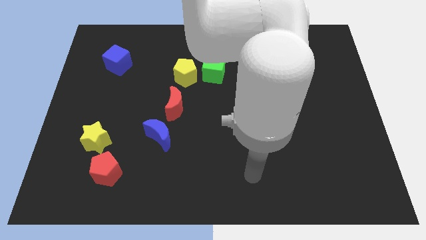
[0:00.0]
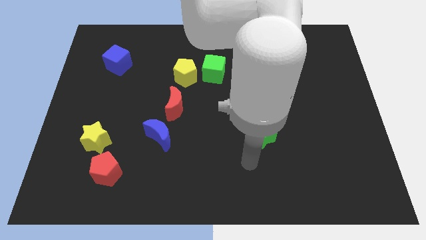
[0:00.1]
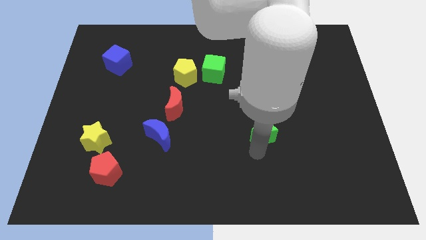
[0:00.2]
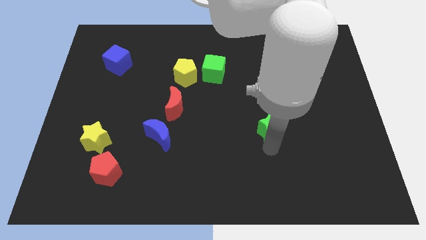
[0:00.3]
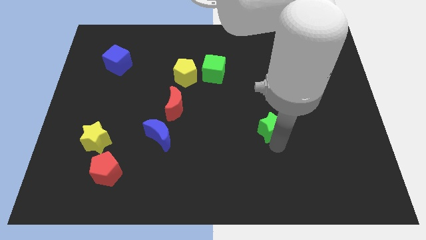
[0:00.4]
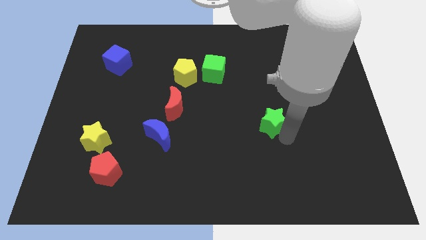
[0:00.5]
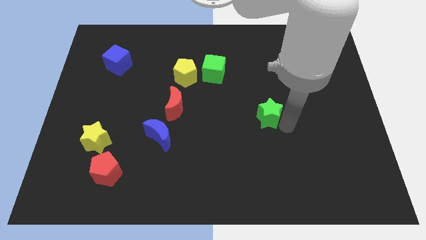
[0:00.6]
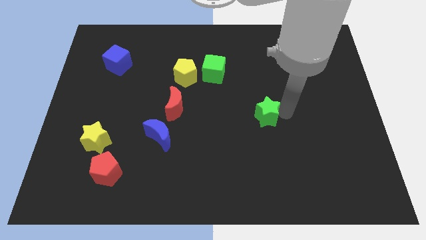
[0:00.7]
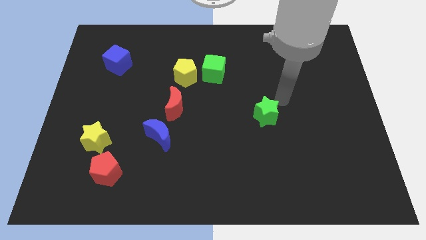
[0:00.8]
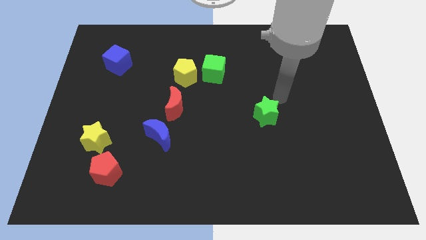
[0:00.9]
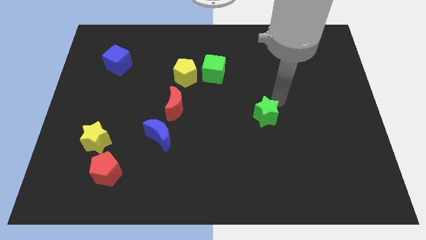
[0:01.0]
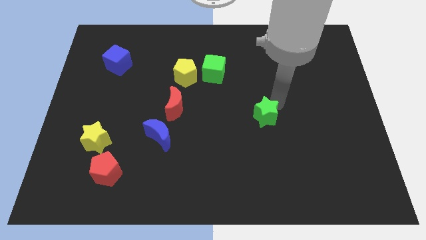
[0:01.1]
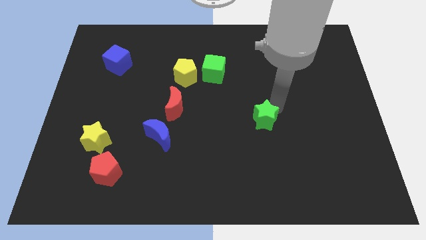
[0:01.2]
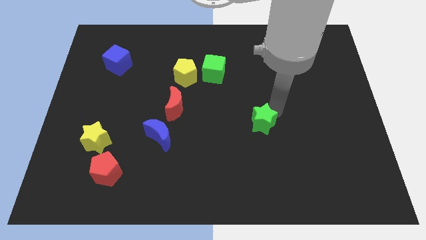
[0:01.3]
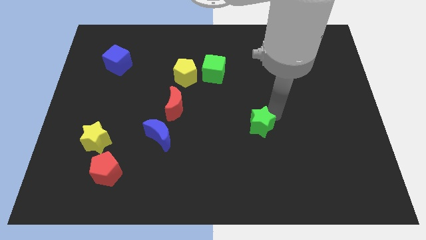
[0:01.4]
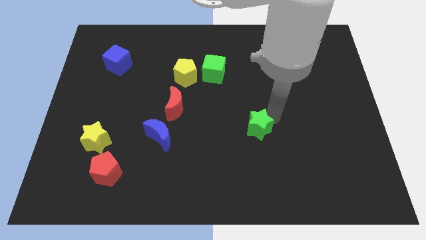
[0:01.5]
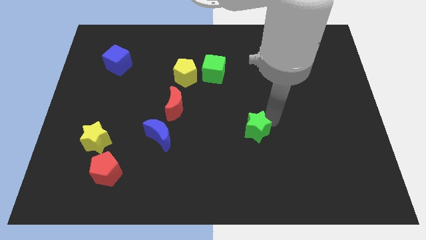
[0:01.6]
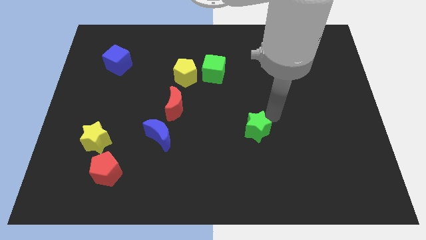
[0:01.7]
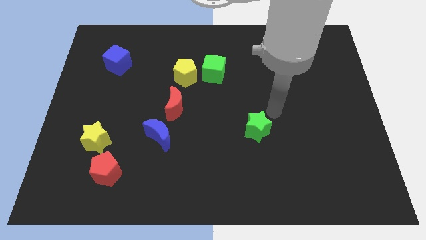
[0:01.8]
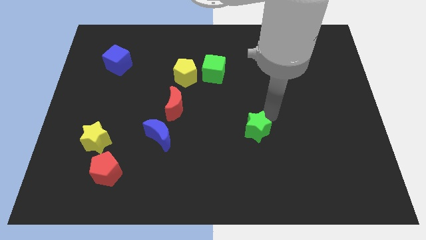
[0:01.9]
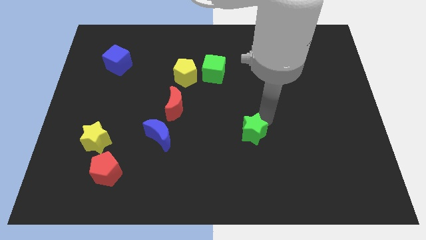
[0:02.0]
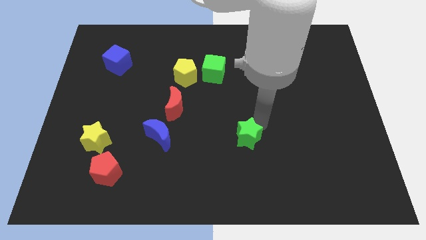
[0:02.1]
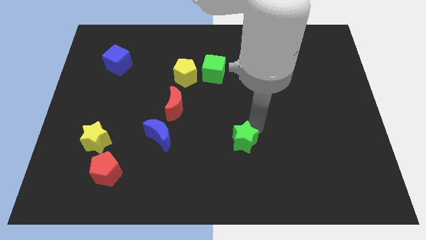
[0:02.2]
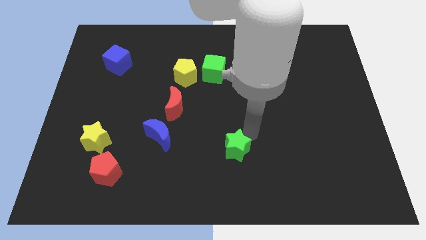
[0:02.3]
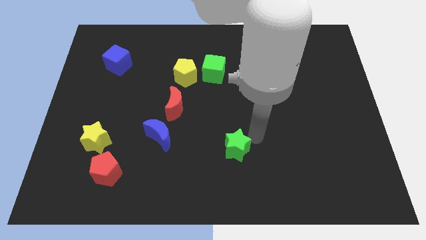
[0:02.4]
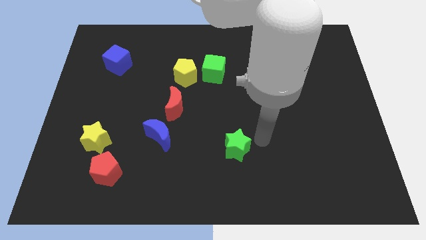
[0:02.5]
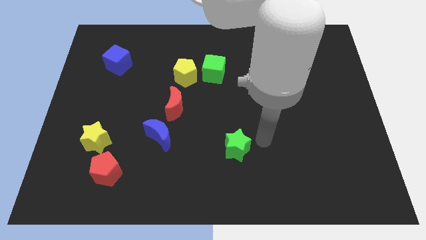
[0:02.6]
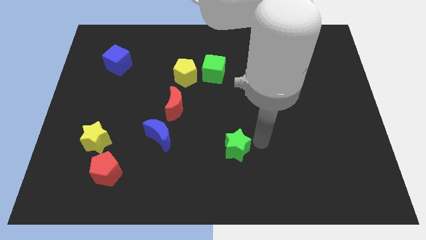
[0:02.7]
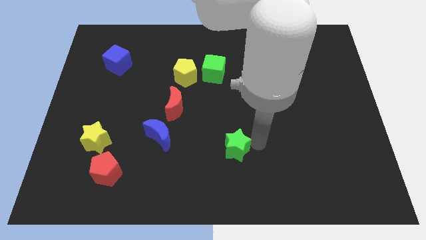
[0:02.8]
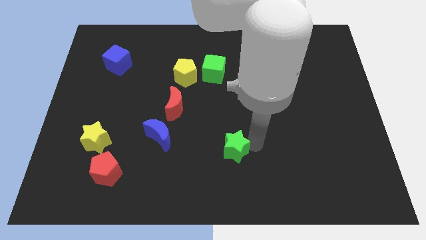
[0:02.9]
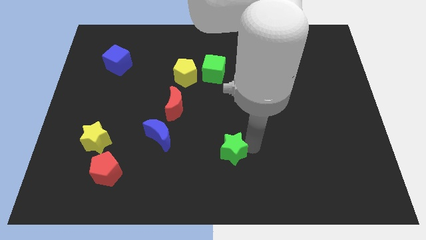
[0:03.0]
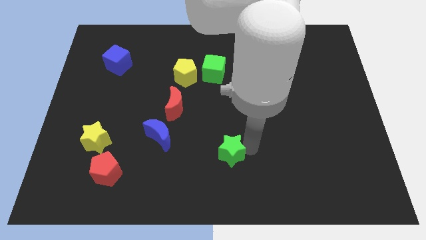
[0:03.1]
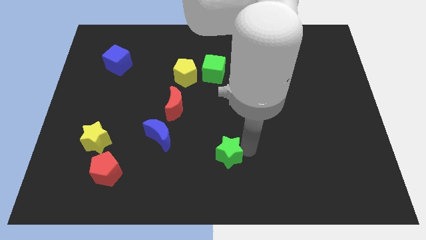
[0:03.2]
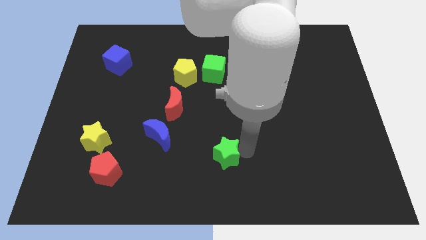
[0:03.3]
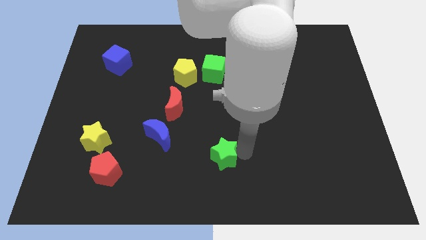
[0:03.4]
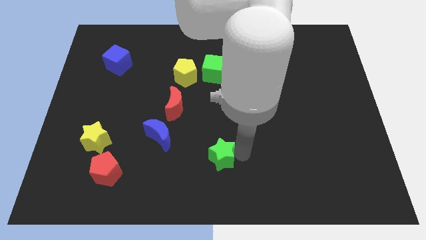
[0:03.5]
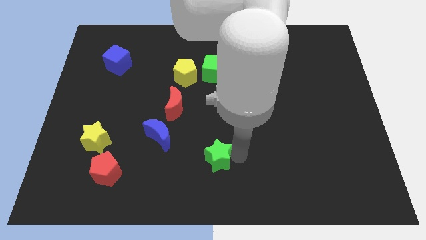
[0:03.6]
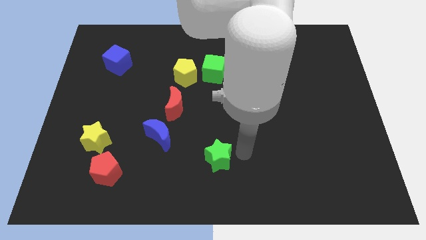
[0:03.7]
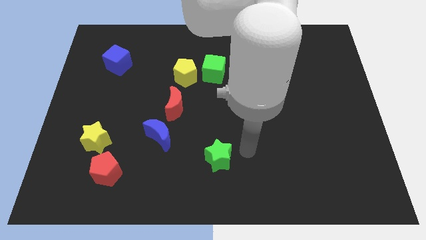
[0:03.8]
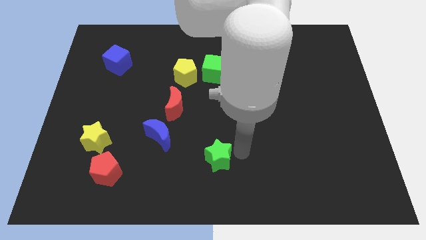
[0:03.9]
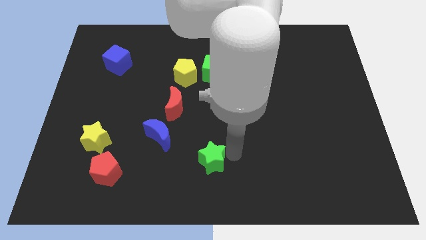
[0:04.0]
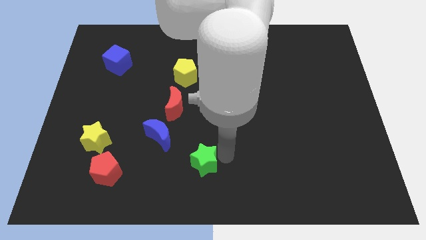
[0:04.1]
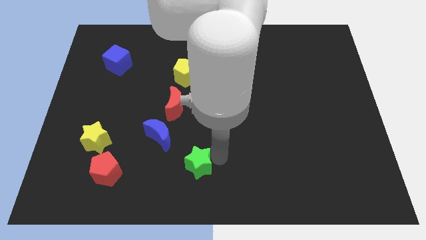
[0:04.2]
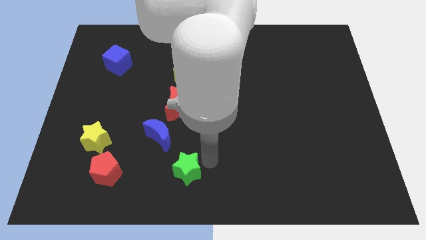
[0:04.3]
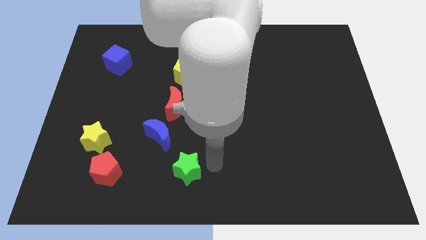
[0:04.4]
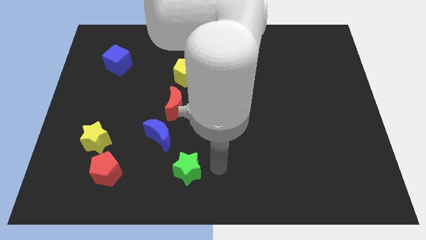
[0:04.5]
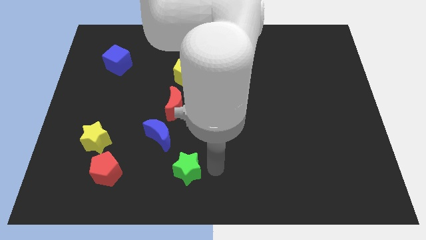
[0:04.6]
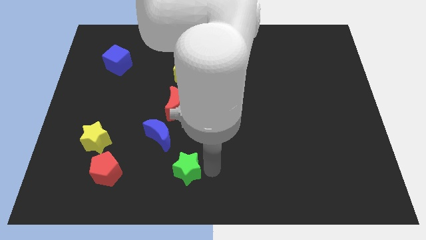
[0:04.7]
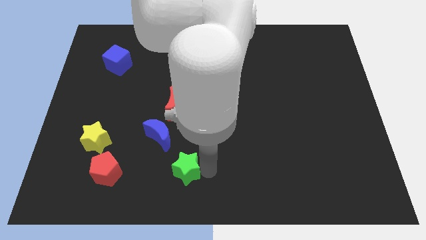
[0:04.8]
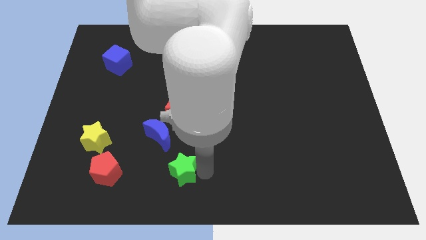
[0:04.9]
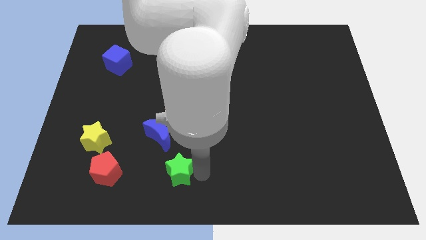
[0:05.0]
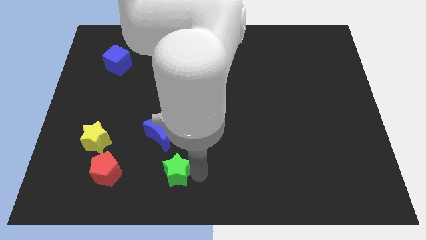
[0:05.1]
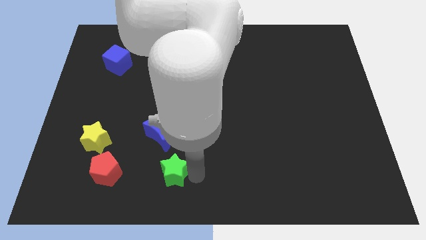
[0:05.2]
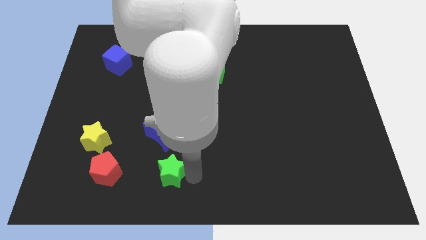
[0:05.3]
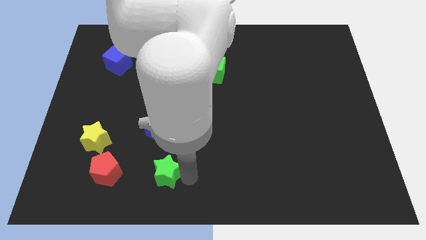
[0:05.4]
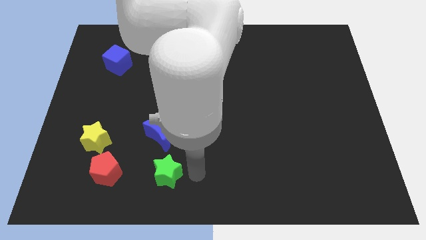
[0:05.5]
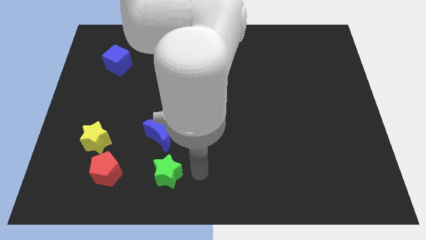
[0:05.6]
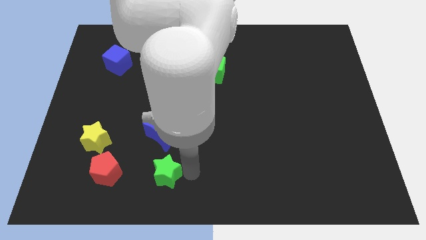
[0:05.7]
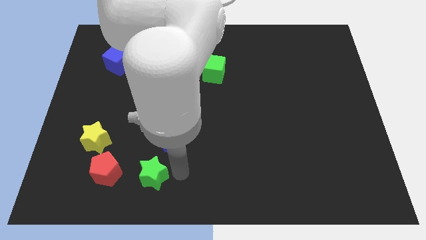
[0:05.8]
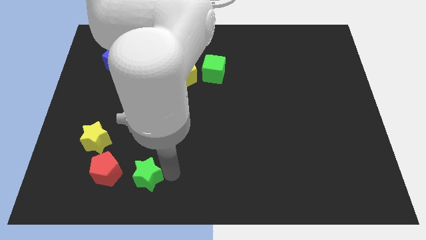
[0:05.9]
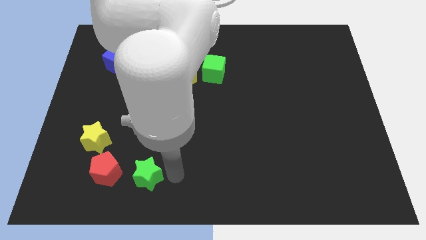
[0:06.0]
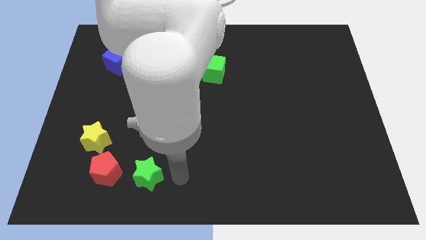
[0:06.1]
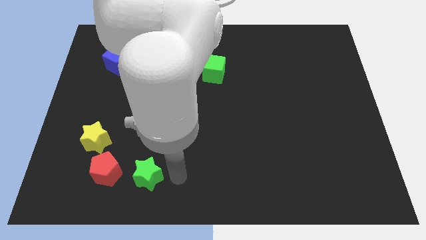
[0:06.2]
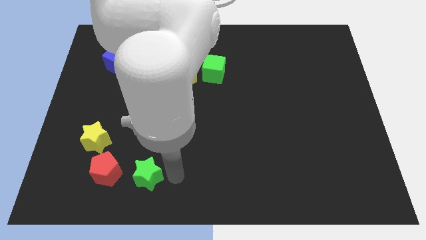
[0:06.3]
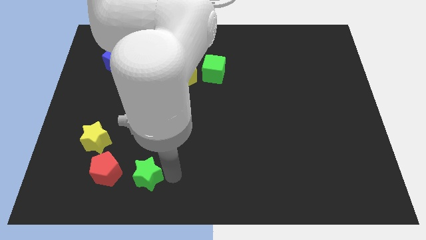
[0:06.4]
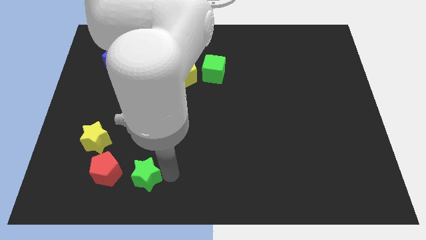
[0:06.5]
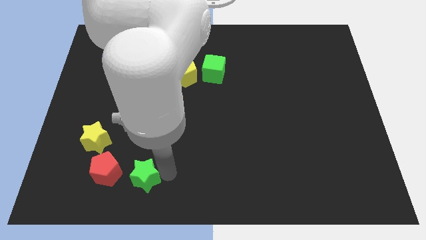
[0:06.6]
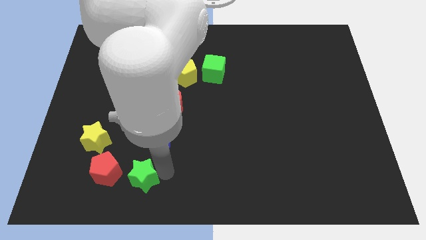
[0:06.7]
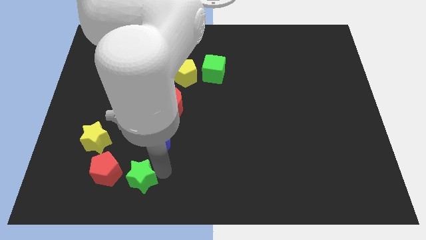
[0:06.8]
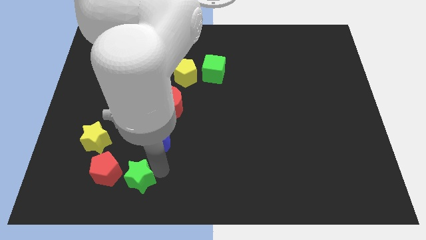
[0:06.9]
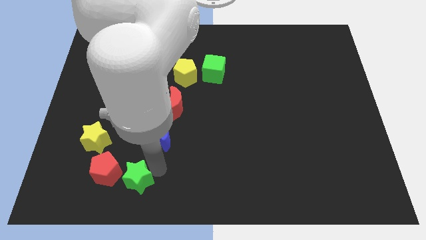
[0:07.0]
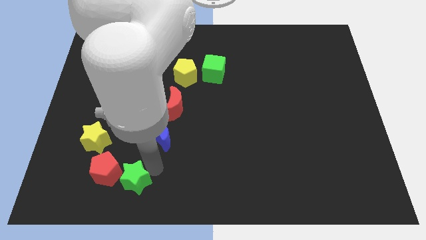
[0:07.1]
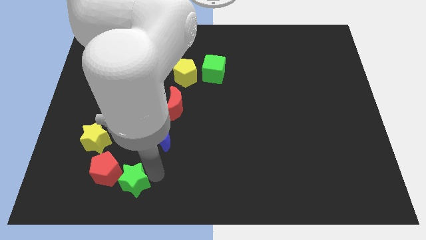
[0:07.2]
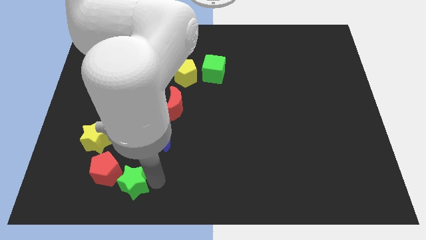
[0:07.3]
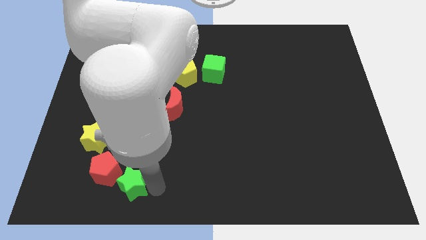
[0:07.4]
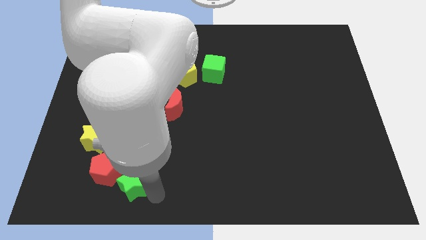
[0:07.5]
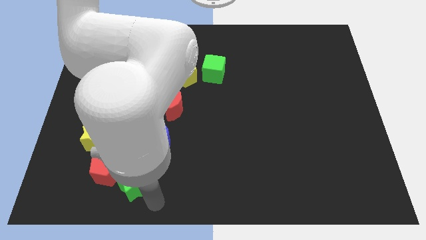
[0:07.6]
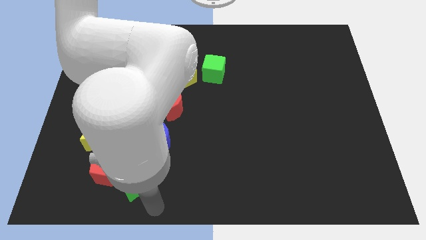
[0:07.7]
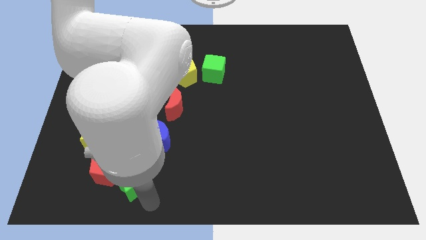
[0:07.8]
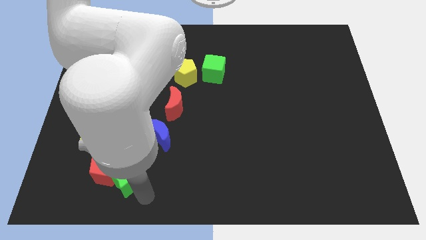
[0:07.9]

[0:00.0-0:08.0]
move the green star to the bottom right side of the yellow star
